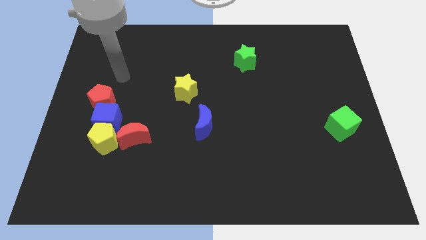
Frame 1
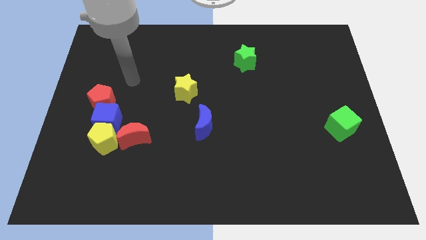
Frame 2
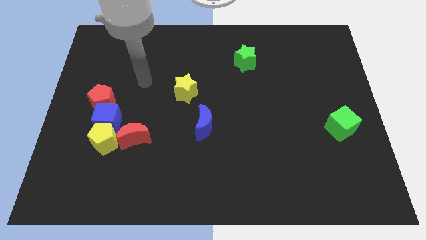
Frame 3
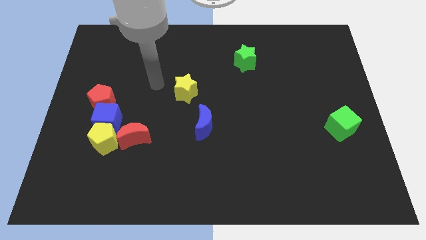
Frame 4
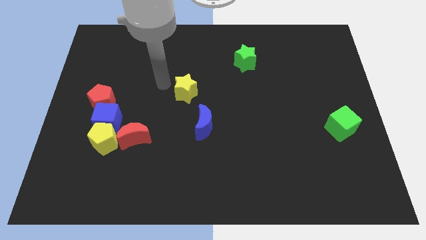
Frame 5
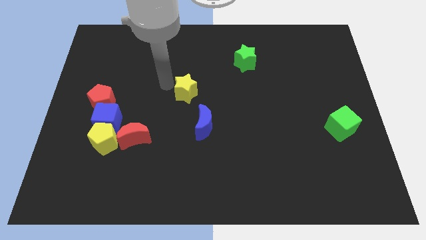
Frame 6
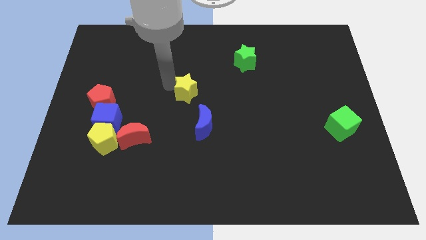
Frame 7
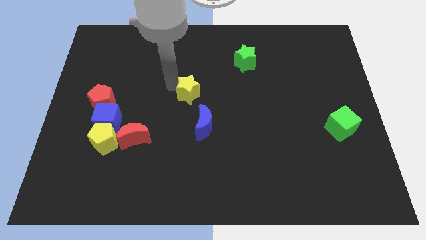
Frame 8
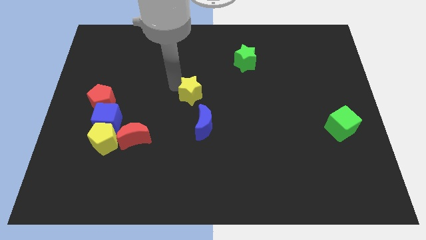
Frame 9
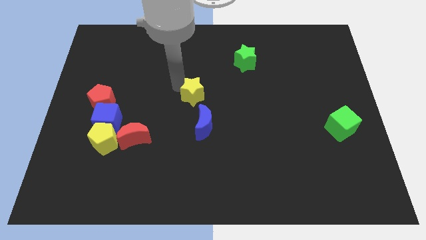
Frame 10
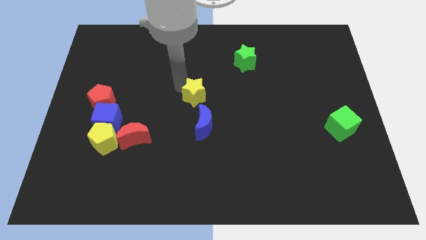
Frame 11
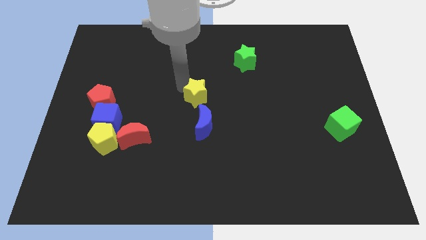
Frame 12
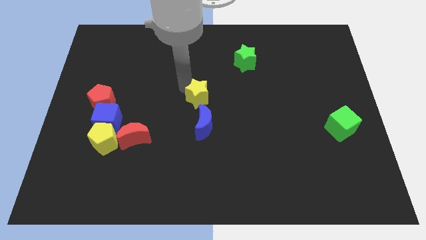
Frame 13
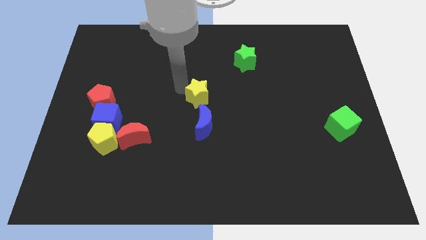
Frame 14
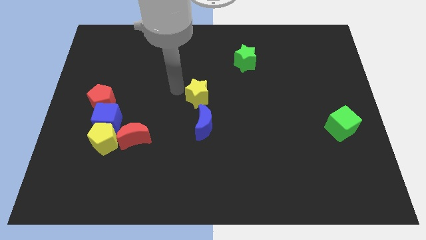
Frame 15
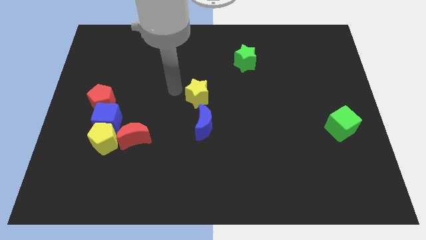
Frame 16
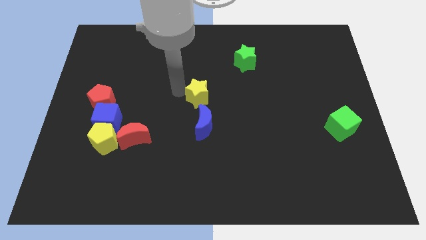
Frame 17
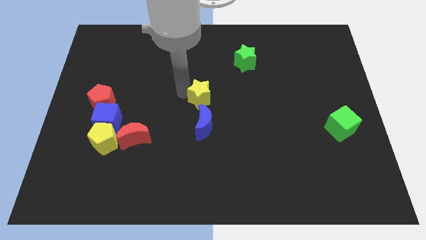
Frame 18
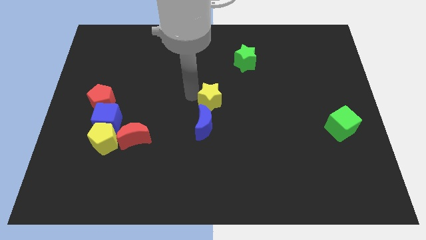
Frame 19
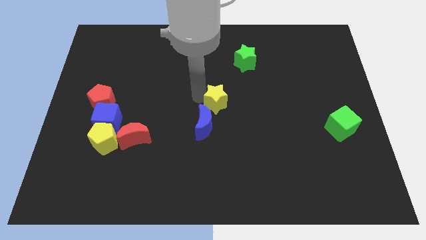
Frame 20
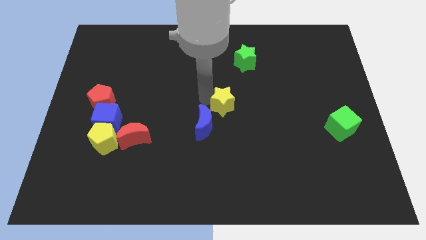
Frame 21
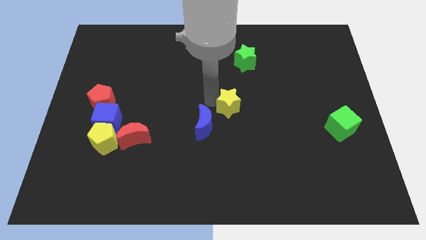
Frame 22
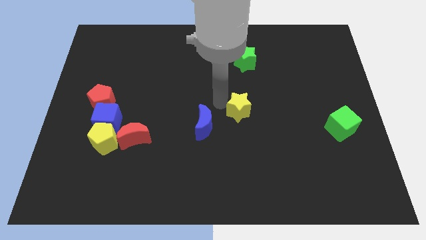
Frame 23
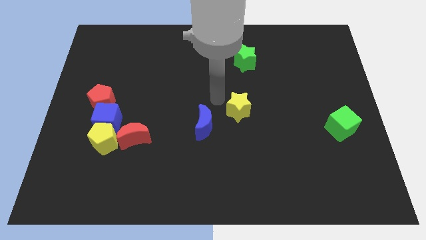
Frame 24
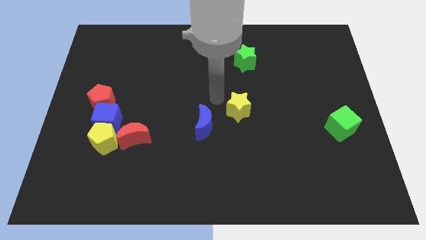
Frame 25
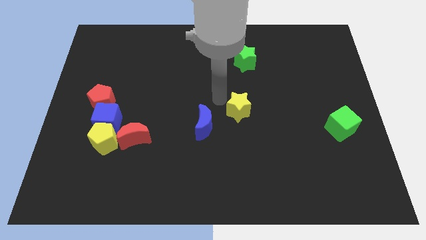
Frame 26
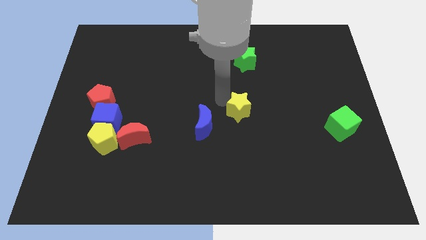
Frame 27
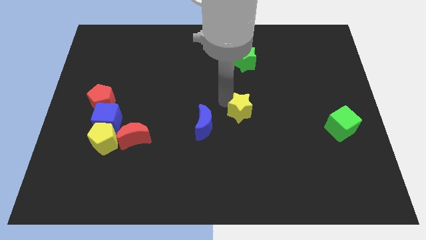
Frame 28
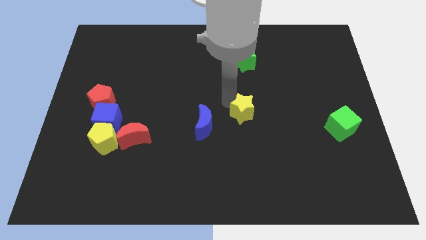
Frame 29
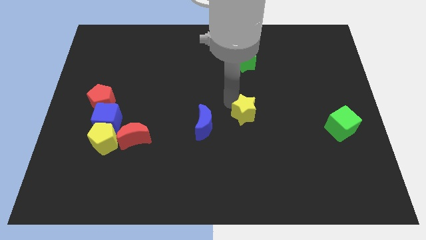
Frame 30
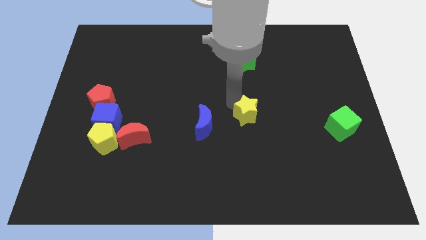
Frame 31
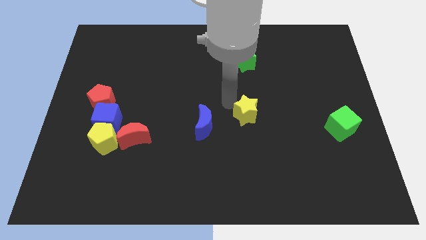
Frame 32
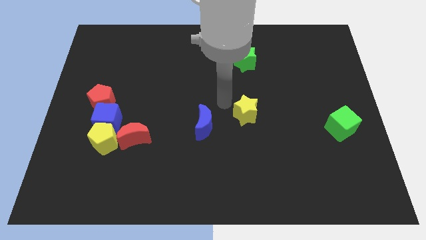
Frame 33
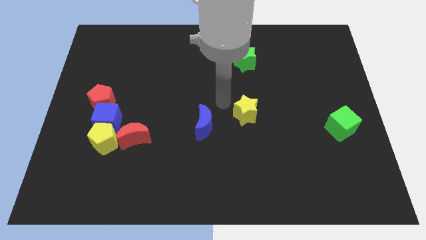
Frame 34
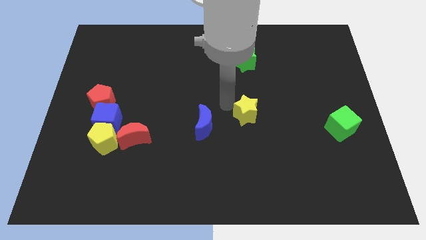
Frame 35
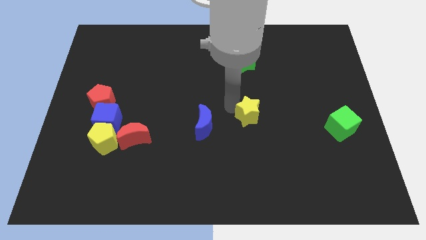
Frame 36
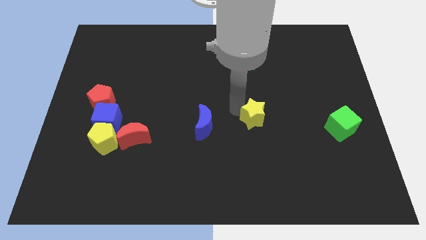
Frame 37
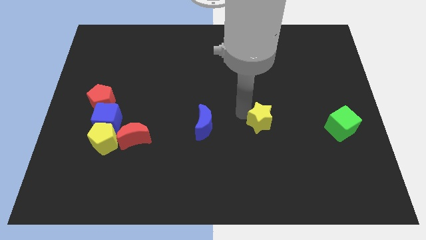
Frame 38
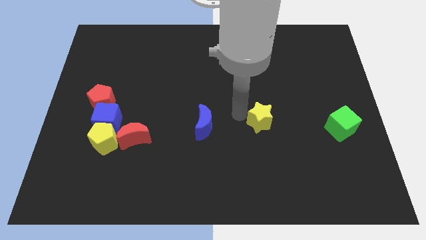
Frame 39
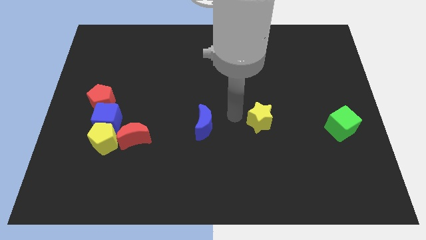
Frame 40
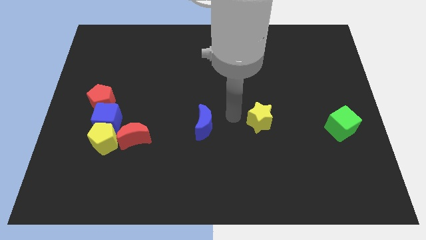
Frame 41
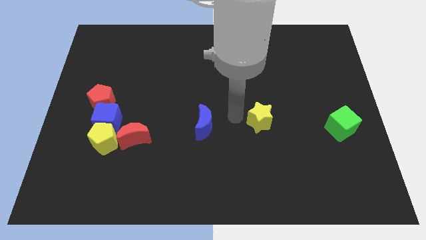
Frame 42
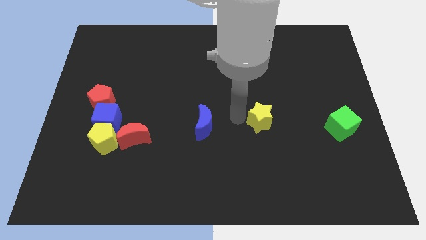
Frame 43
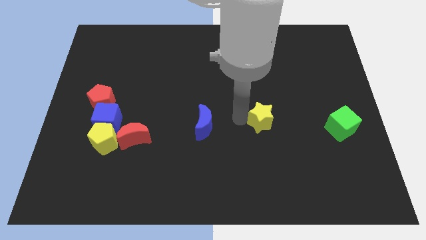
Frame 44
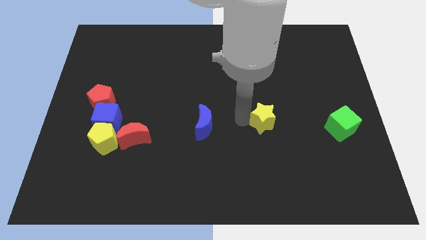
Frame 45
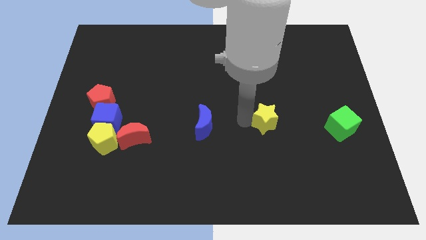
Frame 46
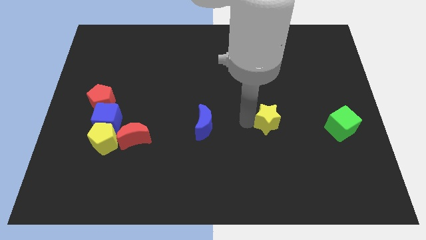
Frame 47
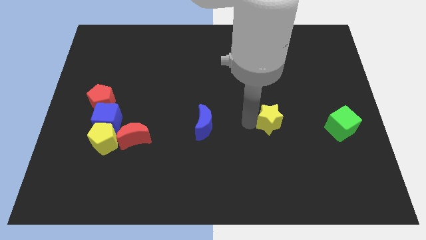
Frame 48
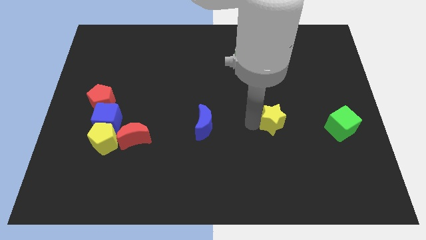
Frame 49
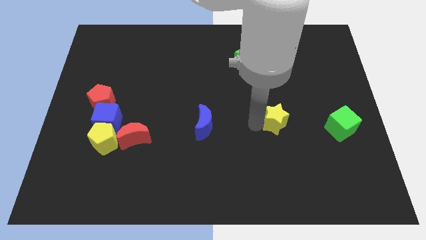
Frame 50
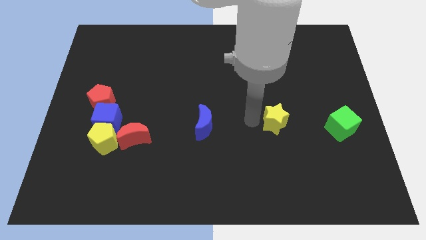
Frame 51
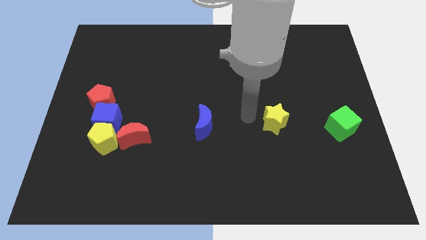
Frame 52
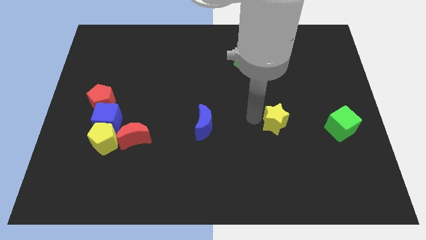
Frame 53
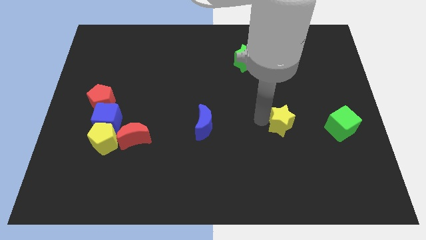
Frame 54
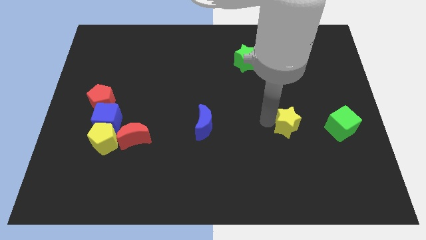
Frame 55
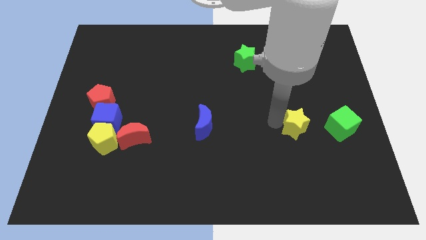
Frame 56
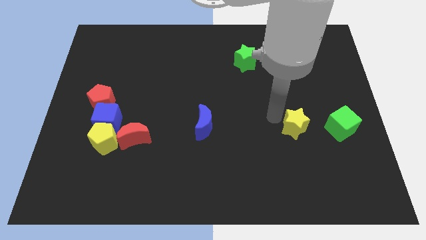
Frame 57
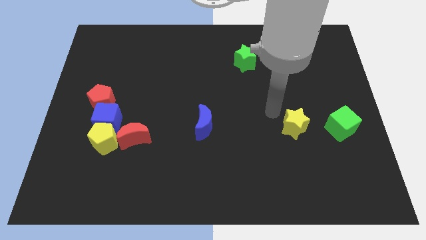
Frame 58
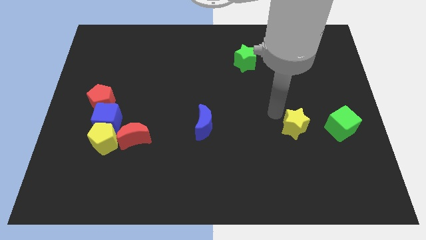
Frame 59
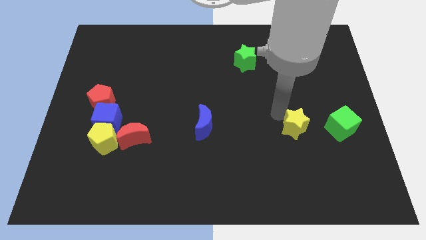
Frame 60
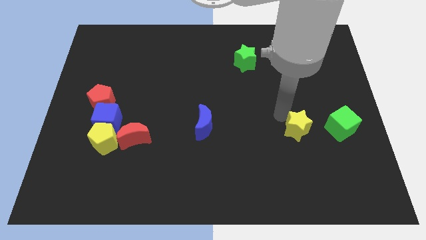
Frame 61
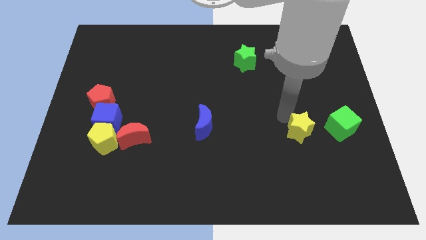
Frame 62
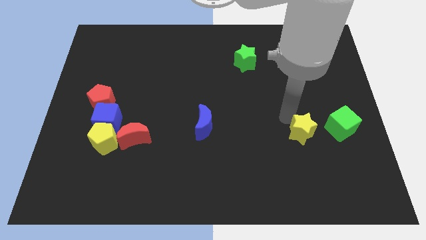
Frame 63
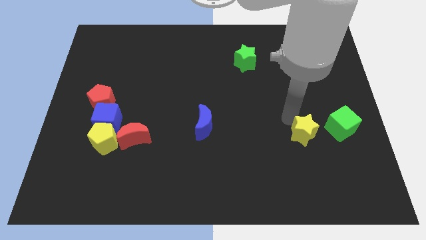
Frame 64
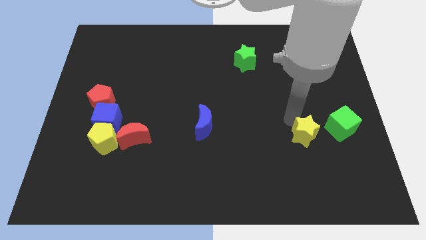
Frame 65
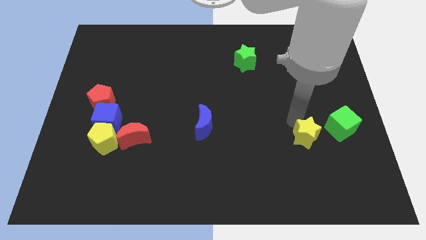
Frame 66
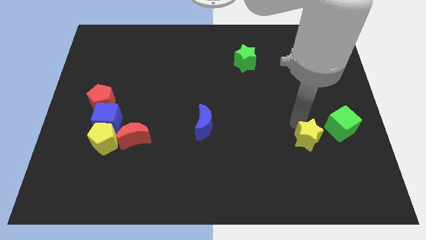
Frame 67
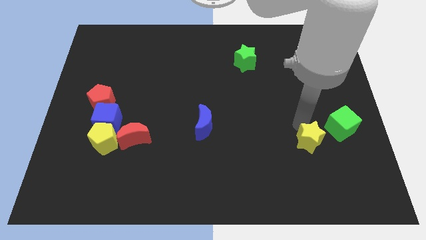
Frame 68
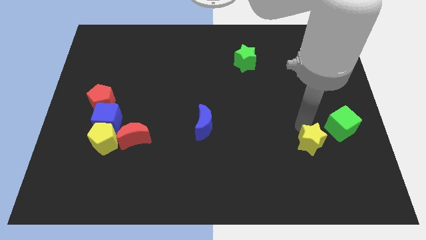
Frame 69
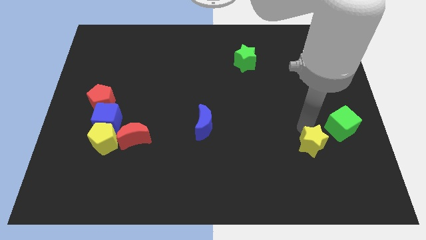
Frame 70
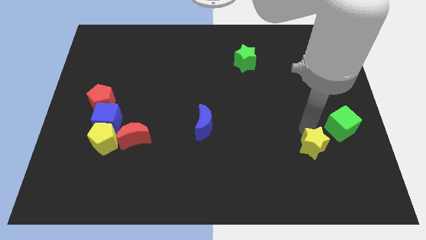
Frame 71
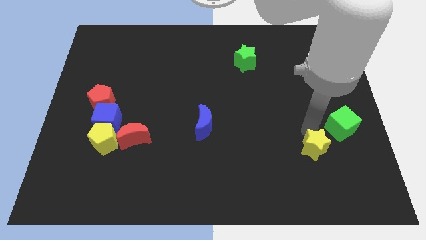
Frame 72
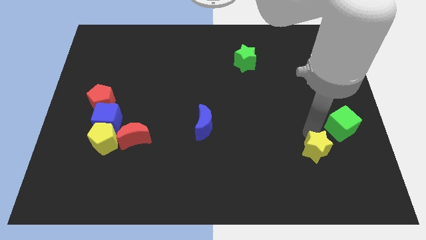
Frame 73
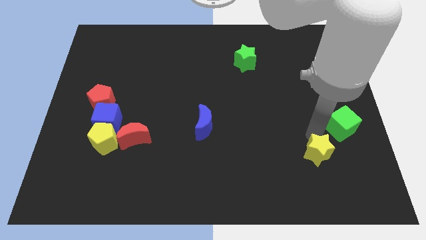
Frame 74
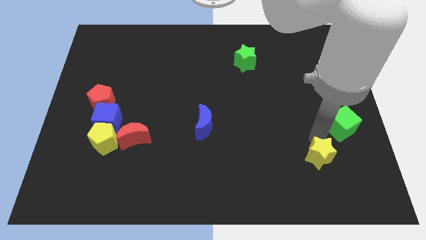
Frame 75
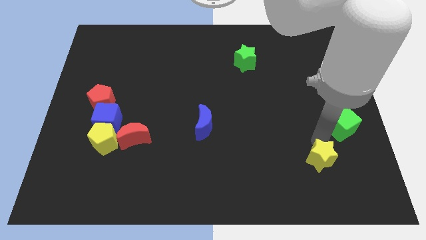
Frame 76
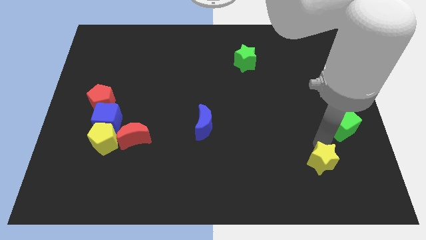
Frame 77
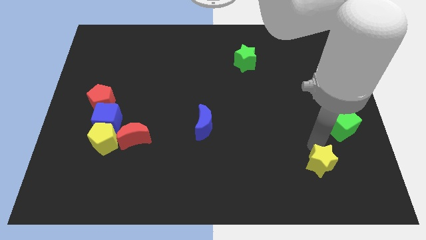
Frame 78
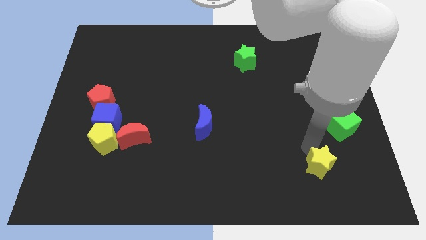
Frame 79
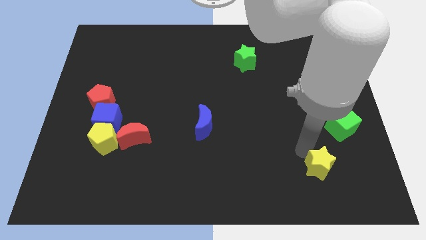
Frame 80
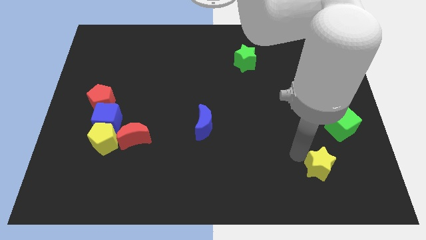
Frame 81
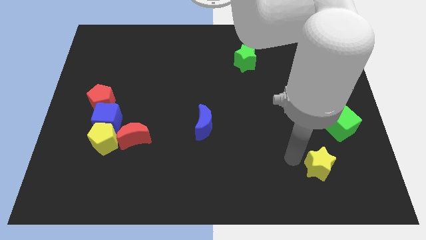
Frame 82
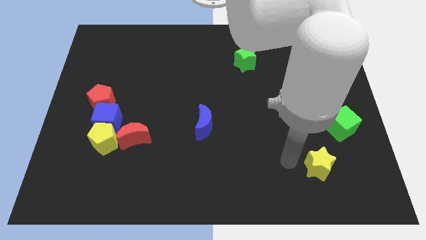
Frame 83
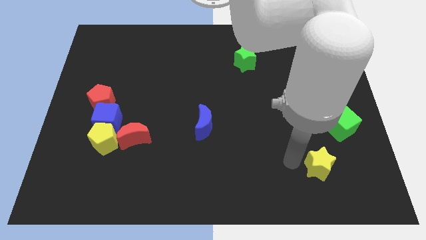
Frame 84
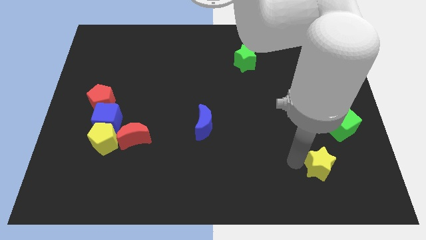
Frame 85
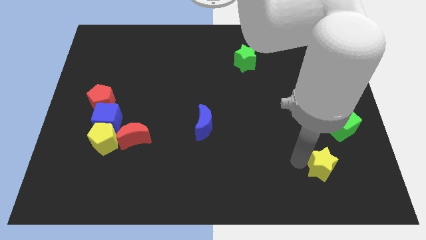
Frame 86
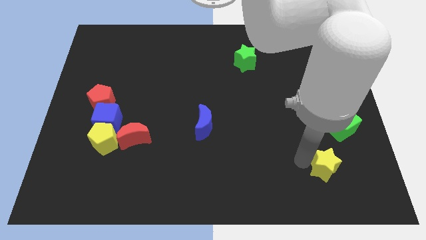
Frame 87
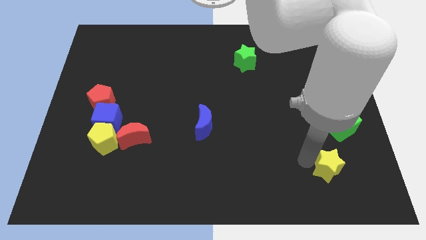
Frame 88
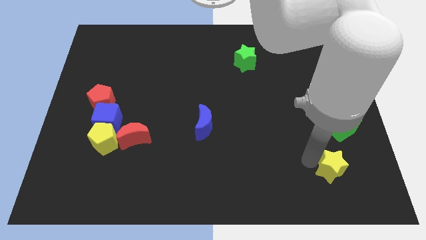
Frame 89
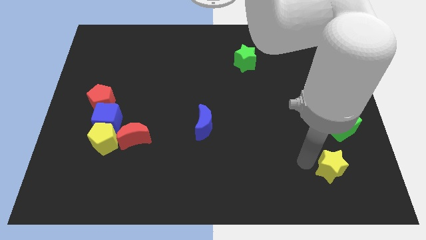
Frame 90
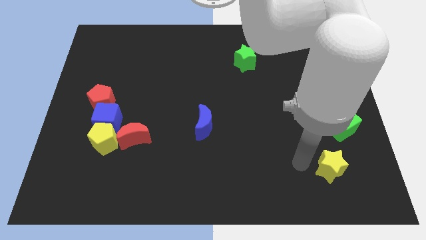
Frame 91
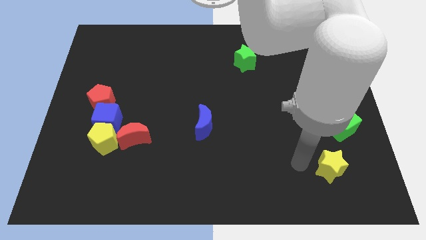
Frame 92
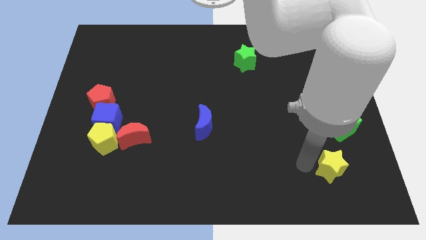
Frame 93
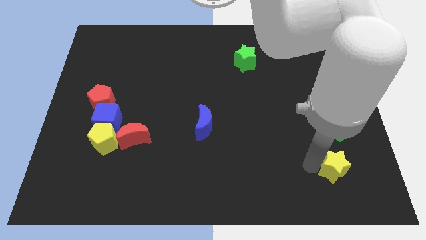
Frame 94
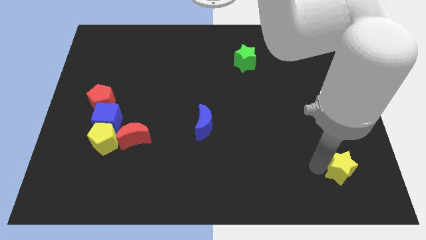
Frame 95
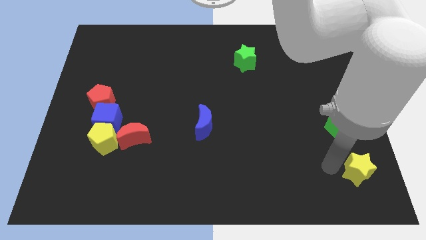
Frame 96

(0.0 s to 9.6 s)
put the yellow star to the bottom right
